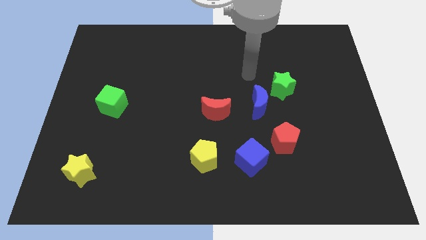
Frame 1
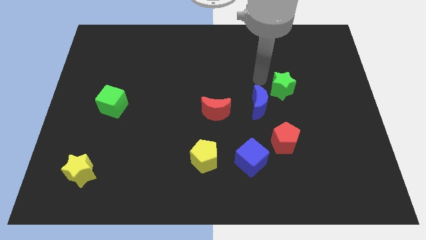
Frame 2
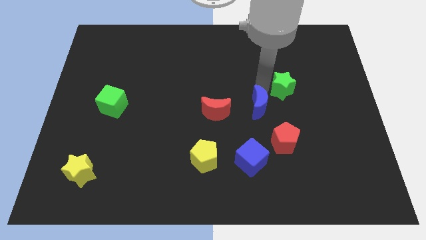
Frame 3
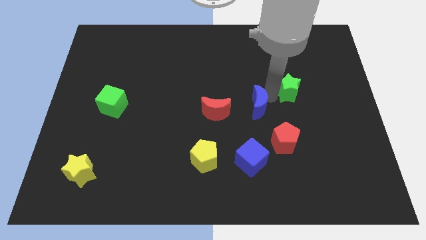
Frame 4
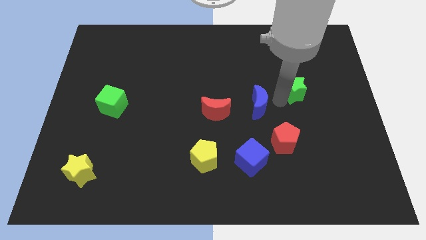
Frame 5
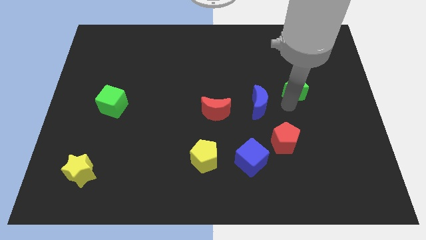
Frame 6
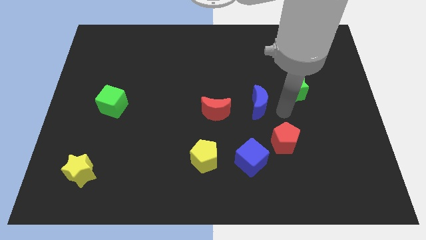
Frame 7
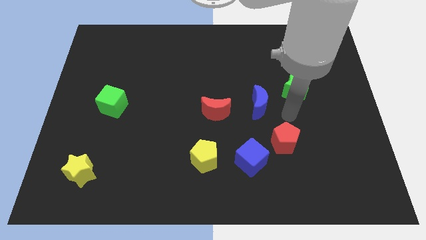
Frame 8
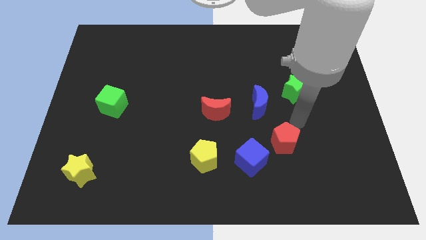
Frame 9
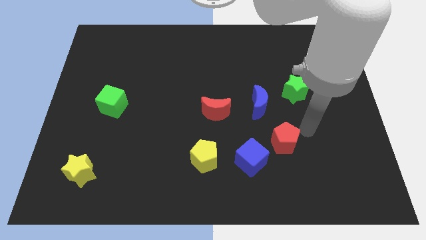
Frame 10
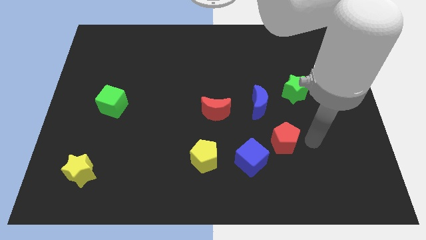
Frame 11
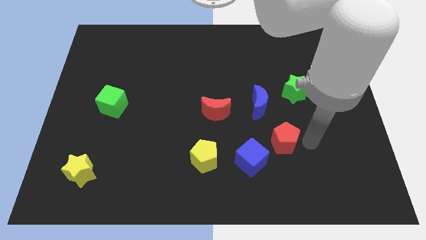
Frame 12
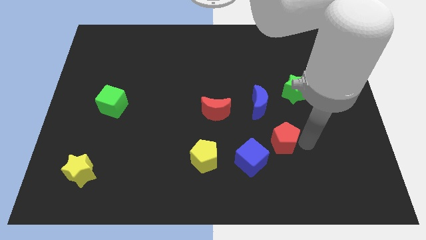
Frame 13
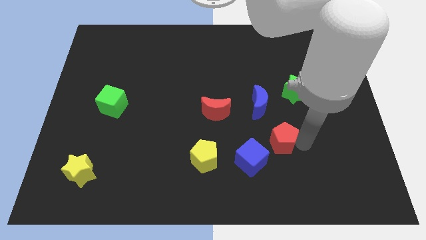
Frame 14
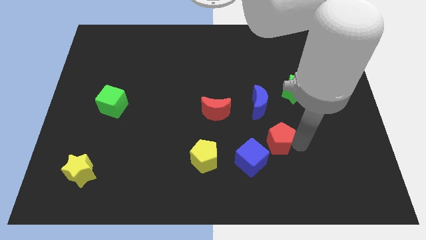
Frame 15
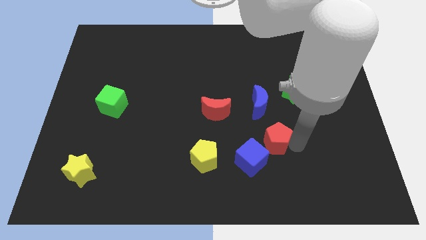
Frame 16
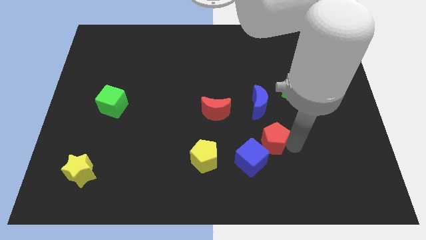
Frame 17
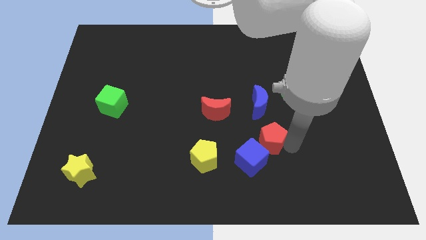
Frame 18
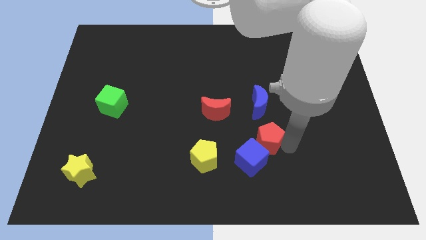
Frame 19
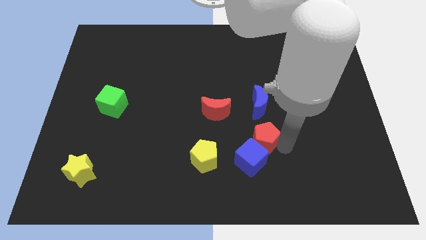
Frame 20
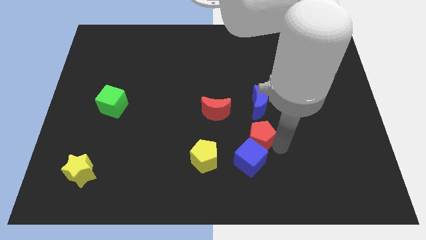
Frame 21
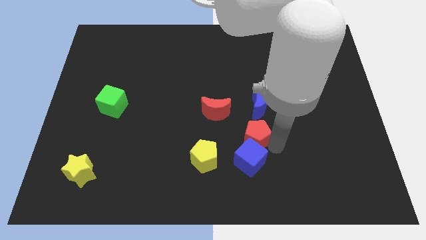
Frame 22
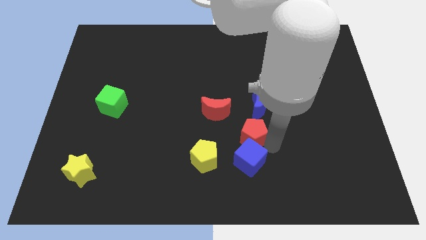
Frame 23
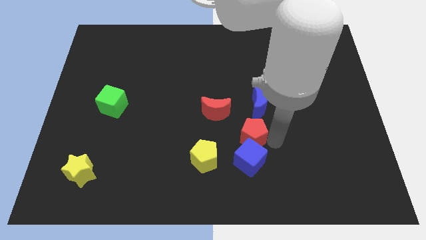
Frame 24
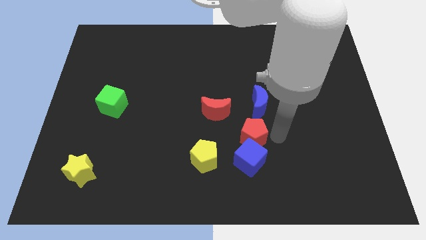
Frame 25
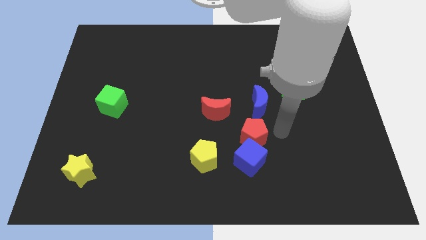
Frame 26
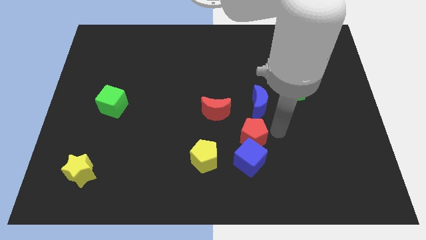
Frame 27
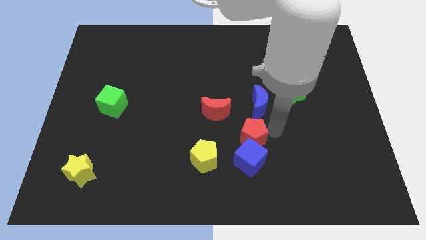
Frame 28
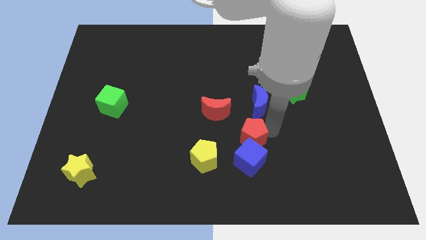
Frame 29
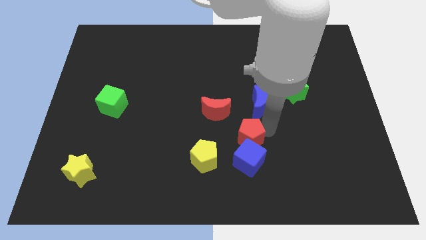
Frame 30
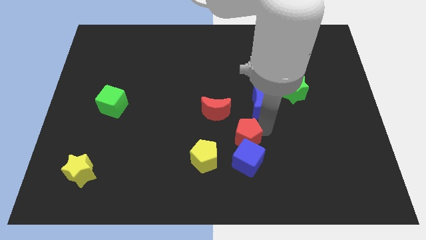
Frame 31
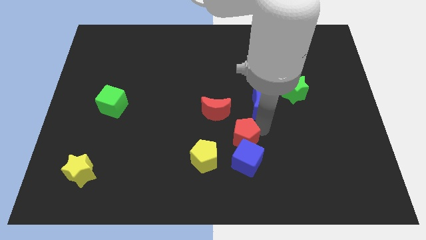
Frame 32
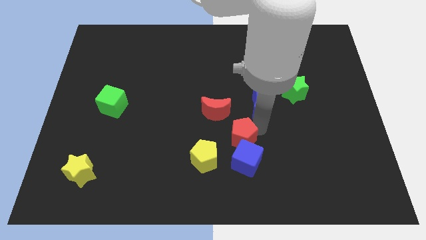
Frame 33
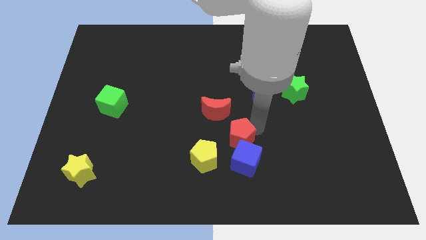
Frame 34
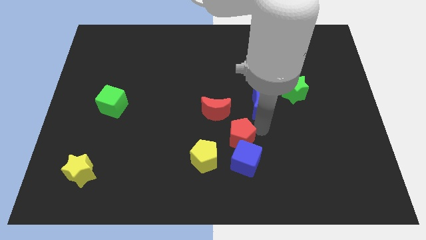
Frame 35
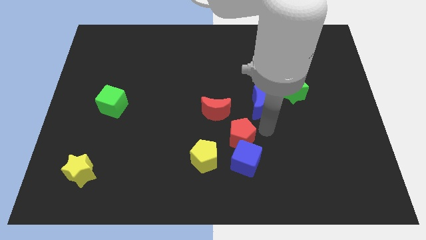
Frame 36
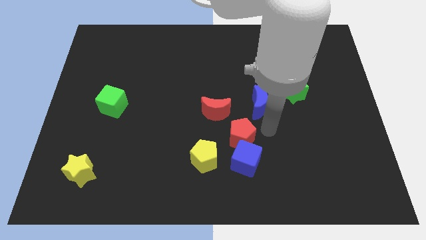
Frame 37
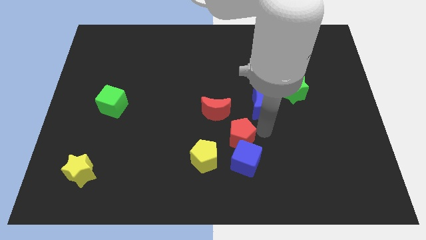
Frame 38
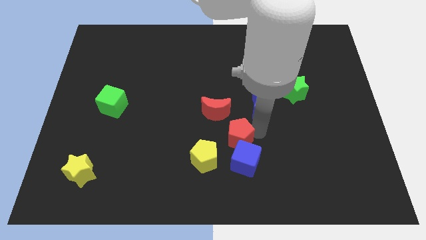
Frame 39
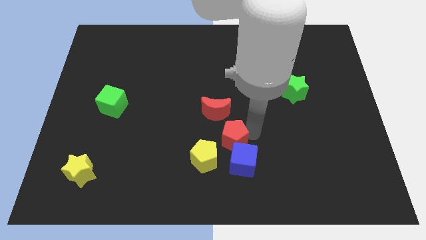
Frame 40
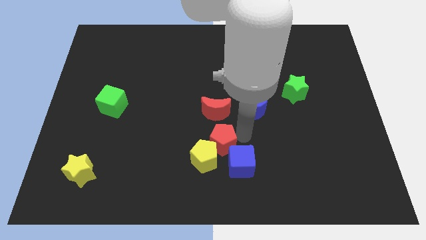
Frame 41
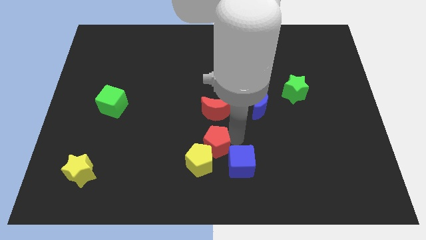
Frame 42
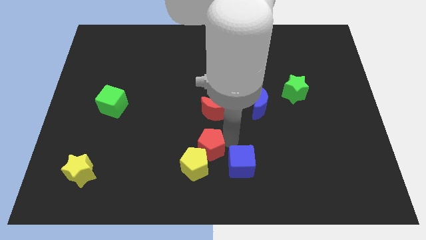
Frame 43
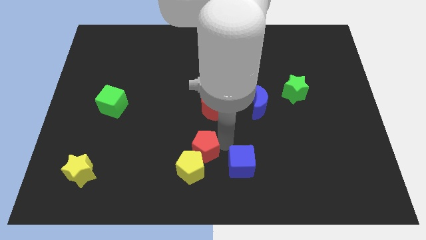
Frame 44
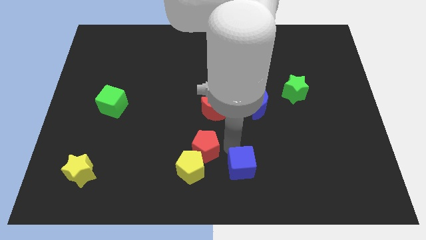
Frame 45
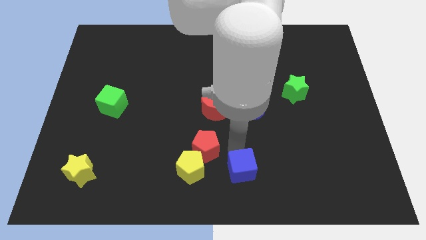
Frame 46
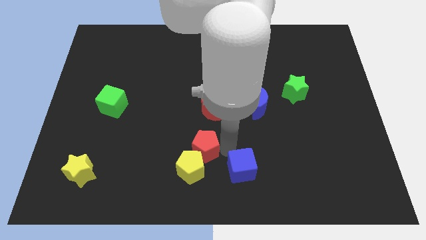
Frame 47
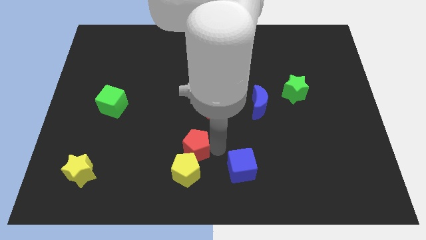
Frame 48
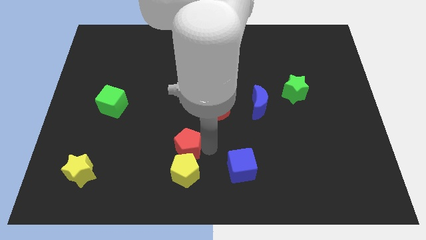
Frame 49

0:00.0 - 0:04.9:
slide the red pentagon to the left

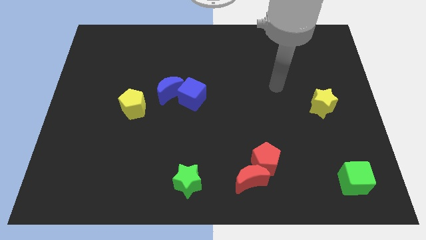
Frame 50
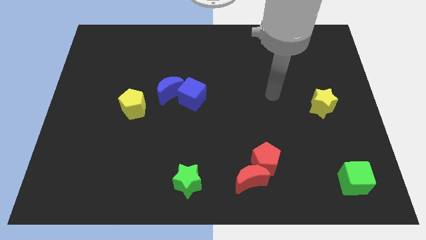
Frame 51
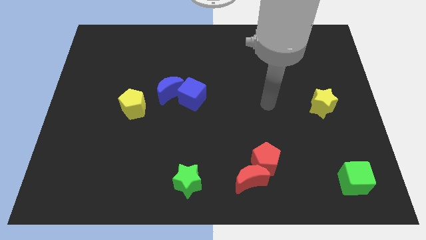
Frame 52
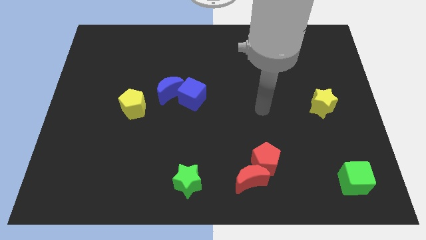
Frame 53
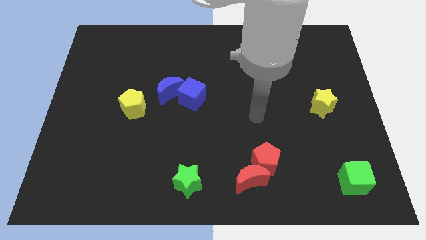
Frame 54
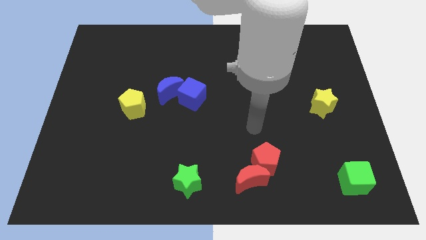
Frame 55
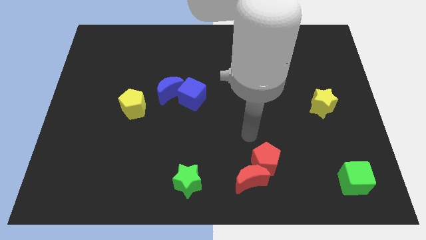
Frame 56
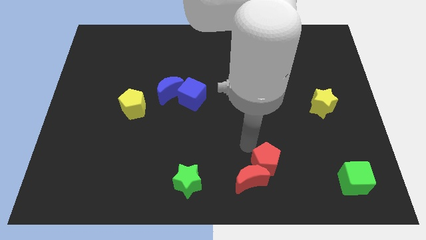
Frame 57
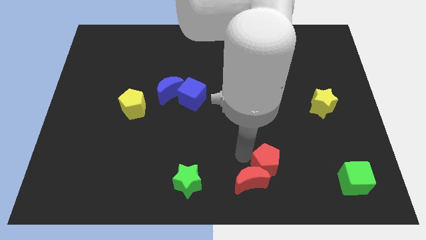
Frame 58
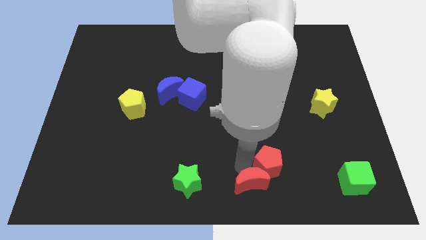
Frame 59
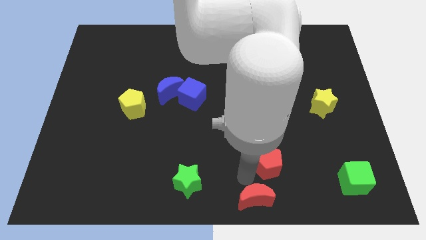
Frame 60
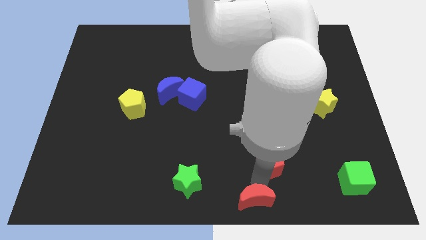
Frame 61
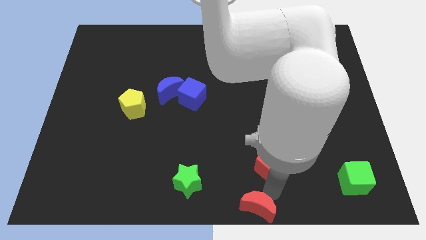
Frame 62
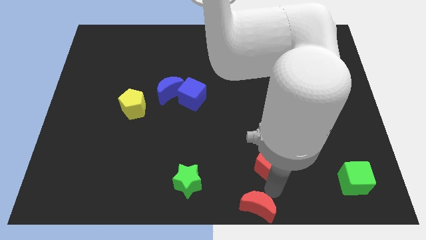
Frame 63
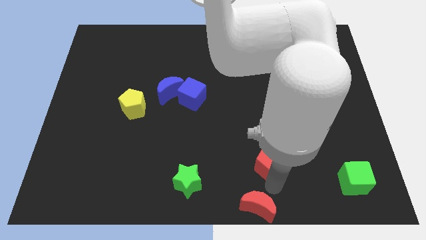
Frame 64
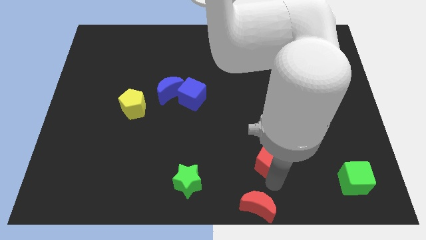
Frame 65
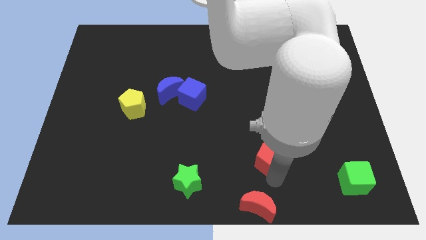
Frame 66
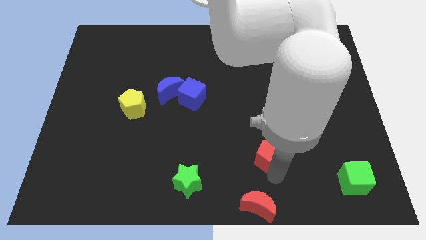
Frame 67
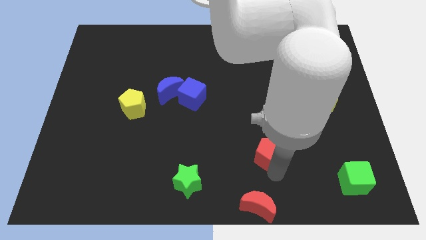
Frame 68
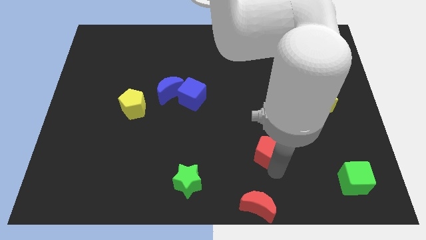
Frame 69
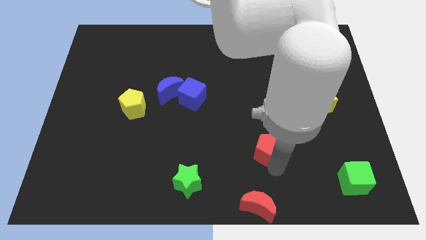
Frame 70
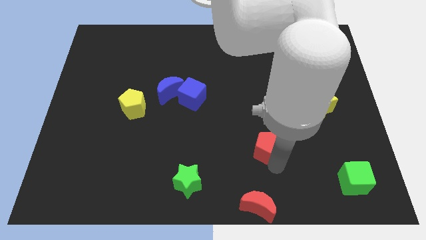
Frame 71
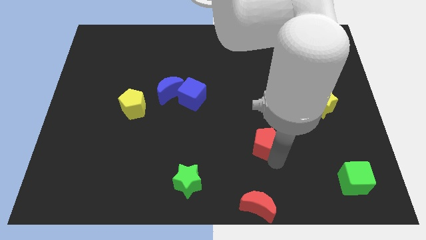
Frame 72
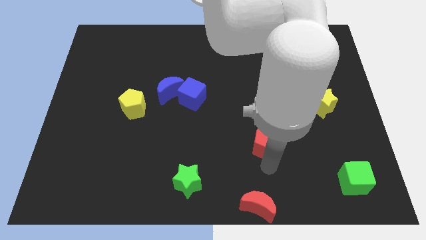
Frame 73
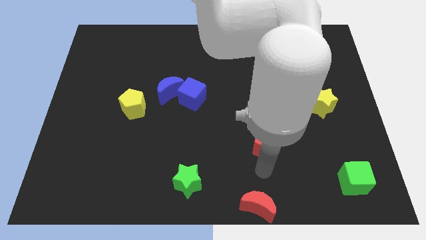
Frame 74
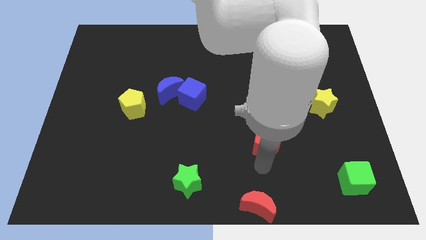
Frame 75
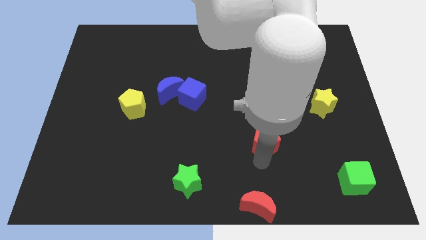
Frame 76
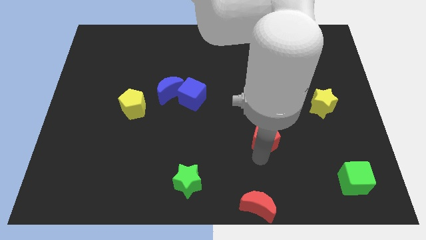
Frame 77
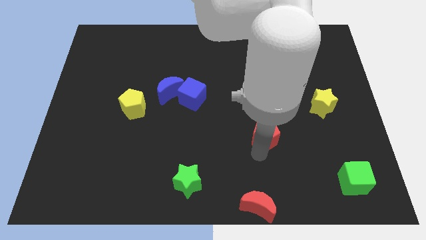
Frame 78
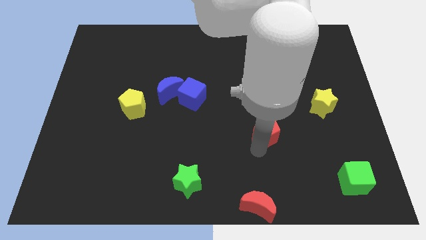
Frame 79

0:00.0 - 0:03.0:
slightly move the red pentagon up
